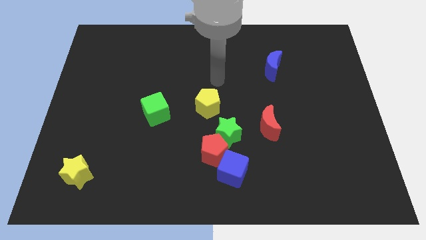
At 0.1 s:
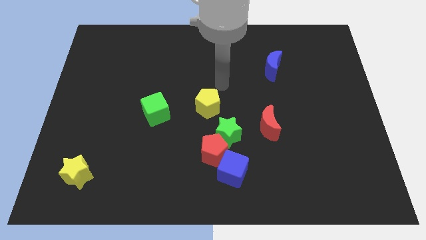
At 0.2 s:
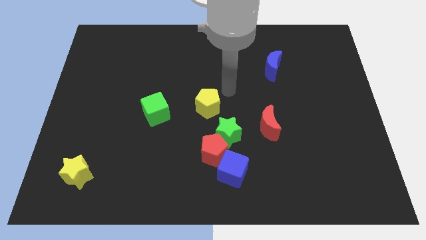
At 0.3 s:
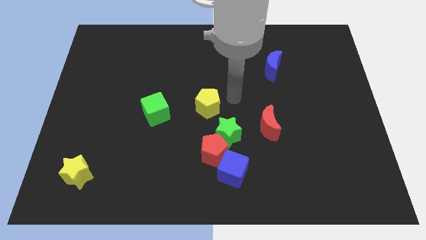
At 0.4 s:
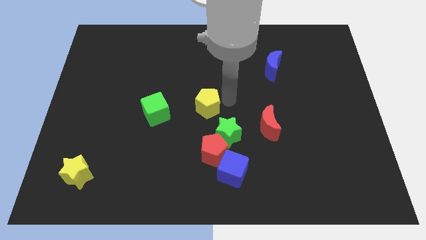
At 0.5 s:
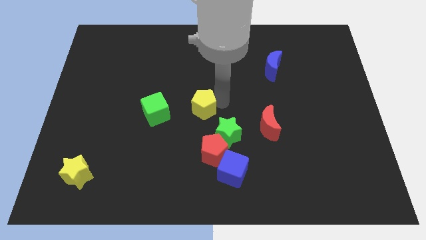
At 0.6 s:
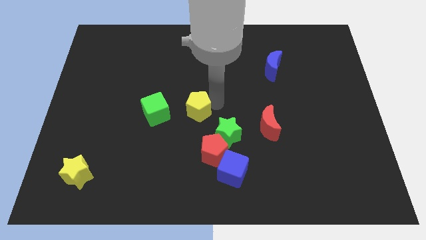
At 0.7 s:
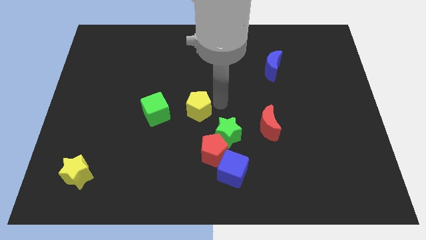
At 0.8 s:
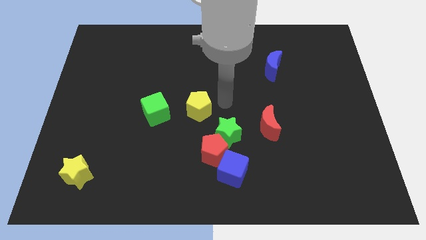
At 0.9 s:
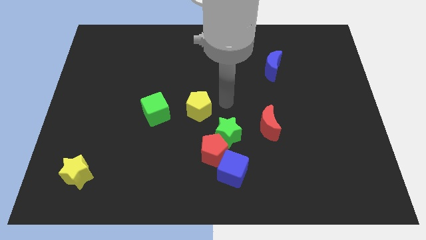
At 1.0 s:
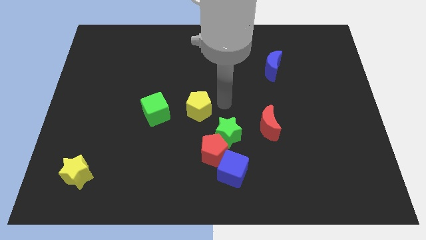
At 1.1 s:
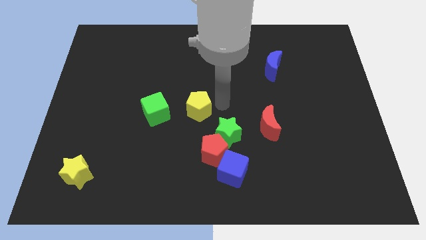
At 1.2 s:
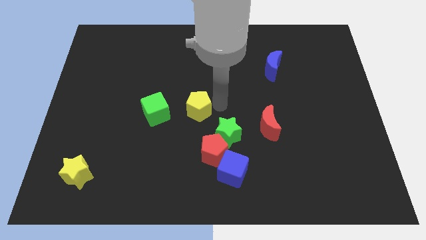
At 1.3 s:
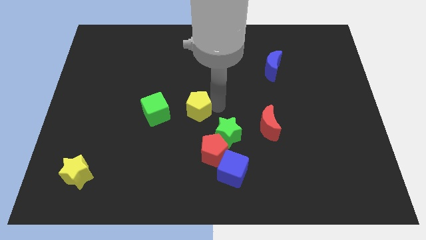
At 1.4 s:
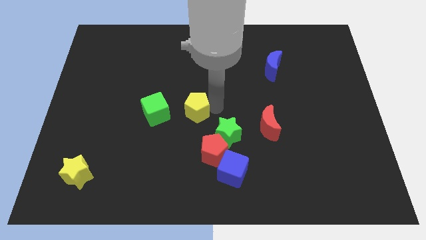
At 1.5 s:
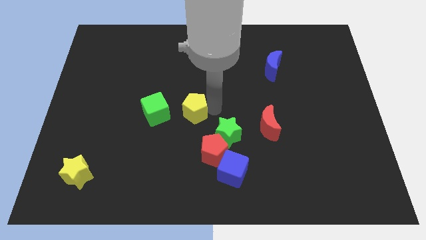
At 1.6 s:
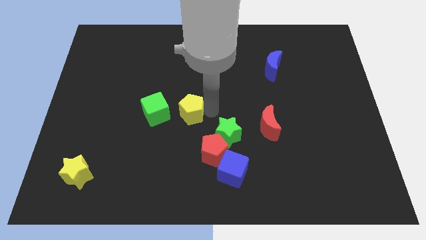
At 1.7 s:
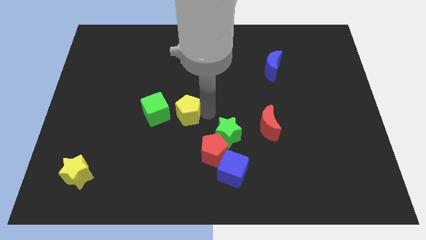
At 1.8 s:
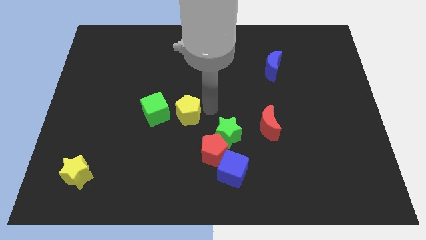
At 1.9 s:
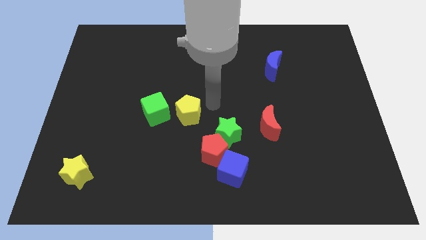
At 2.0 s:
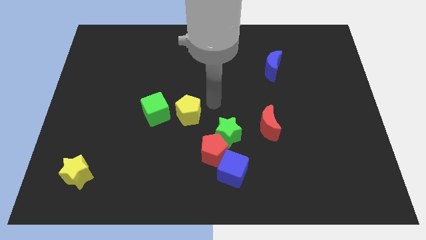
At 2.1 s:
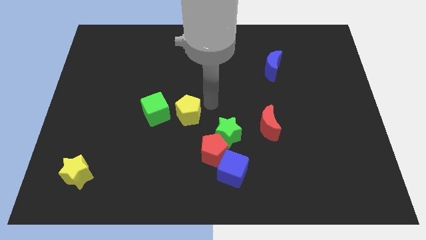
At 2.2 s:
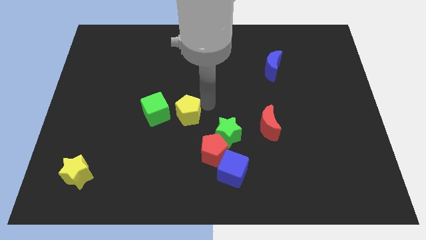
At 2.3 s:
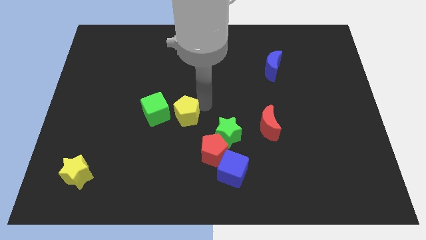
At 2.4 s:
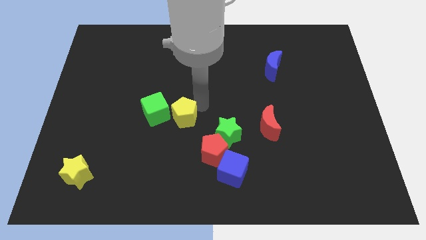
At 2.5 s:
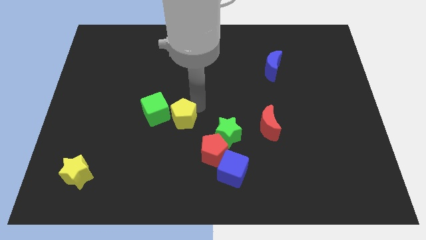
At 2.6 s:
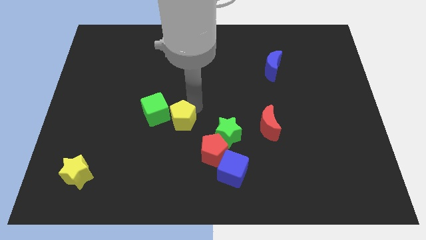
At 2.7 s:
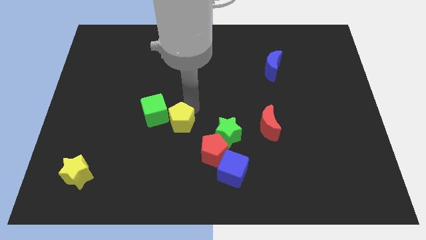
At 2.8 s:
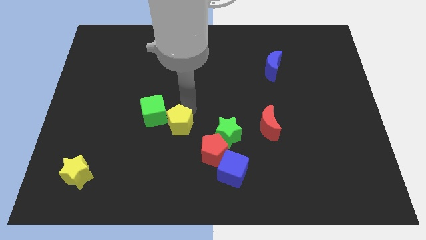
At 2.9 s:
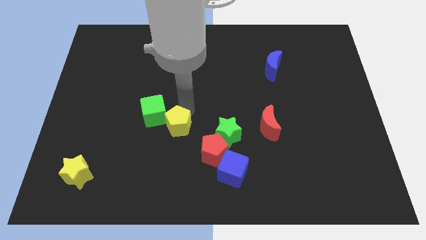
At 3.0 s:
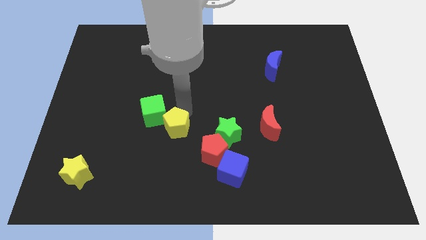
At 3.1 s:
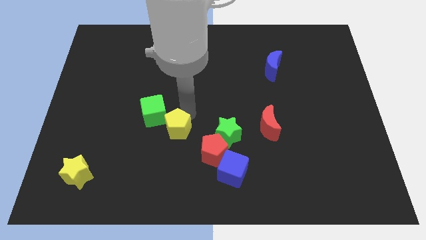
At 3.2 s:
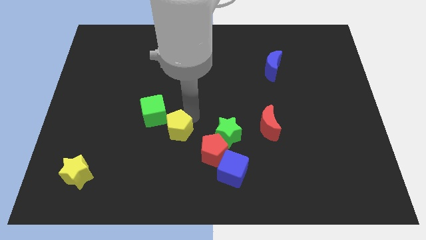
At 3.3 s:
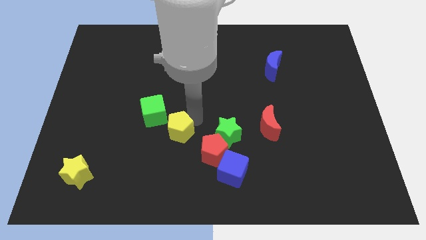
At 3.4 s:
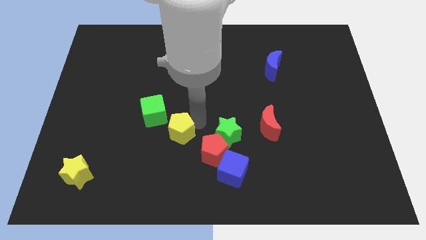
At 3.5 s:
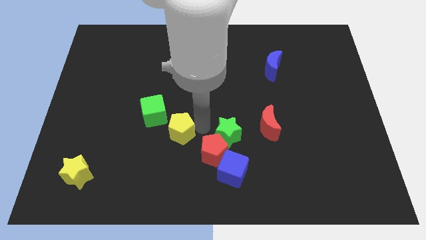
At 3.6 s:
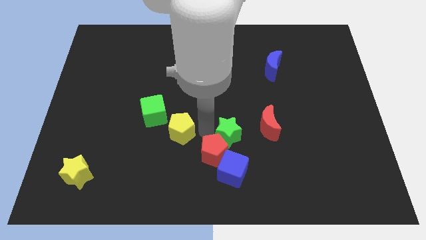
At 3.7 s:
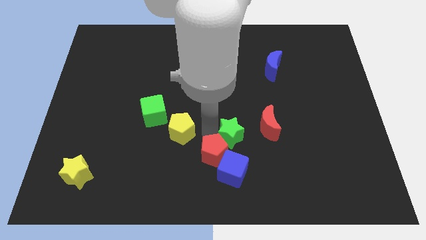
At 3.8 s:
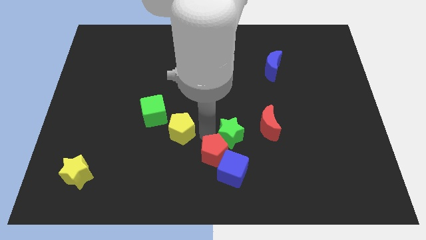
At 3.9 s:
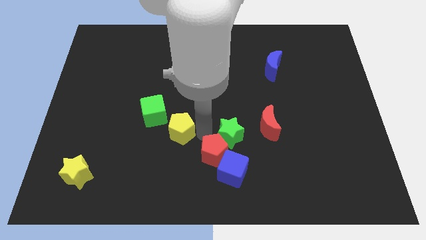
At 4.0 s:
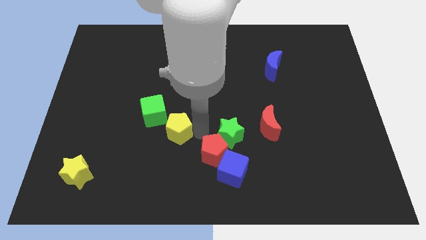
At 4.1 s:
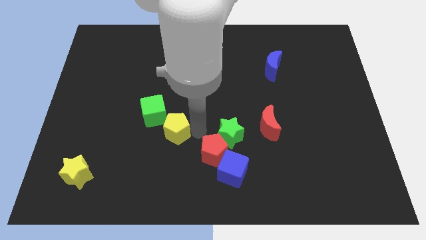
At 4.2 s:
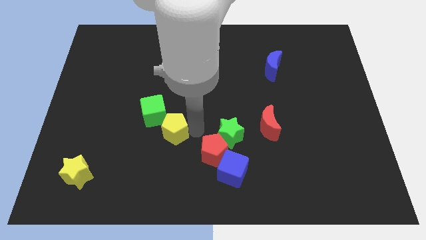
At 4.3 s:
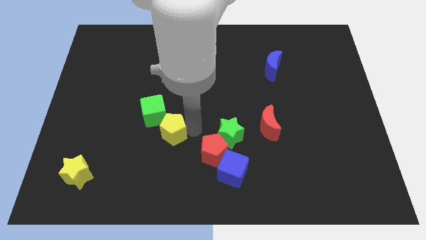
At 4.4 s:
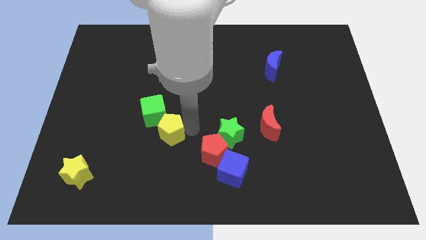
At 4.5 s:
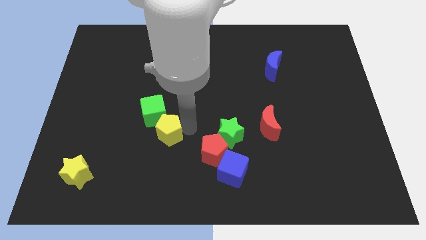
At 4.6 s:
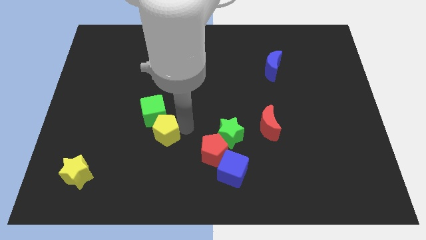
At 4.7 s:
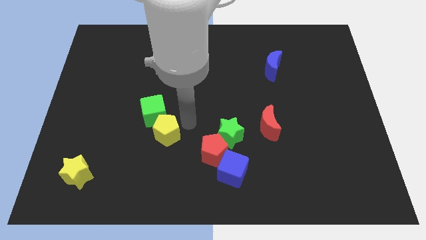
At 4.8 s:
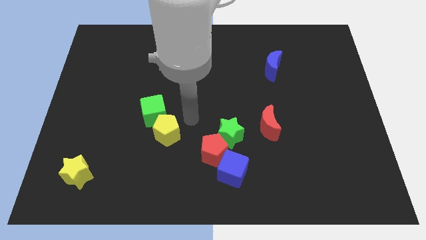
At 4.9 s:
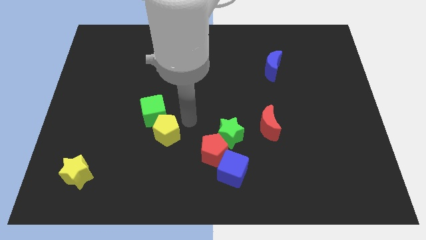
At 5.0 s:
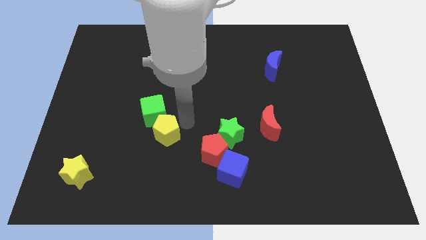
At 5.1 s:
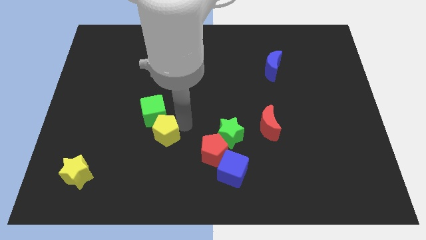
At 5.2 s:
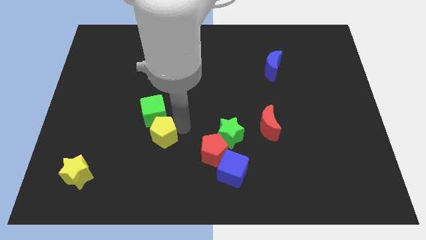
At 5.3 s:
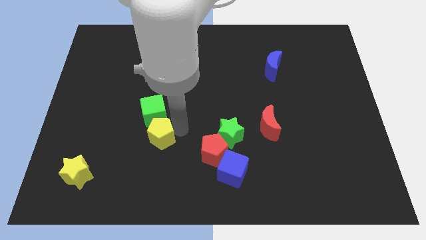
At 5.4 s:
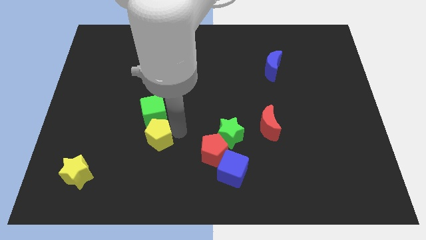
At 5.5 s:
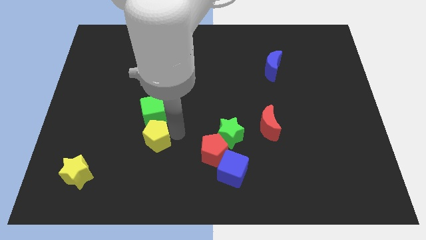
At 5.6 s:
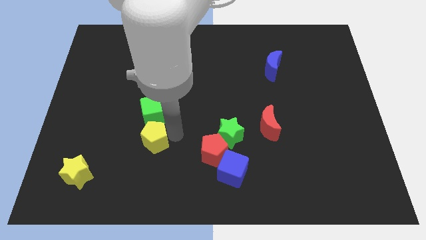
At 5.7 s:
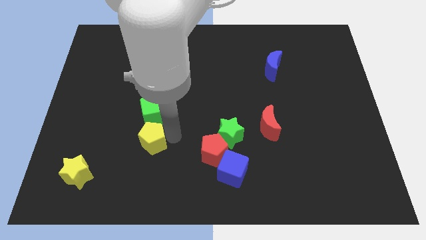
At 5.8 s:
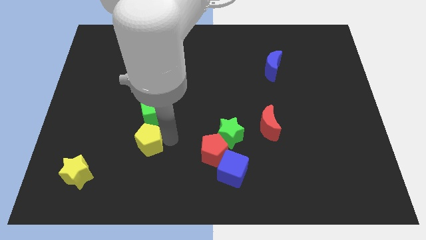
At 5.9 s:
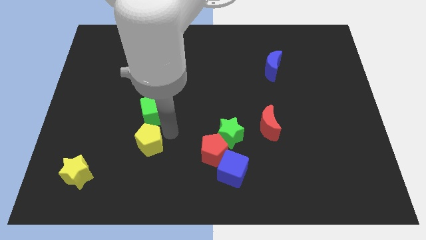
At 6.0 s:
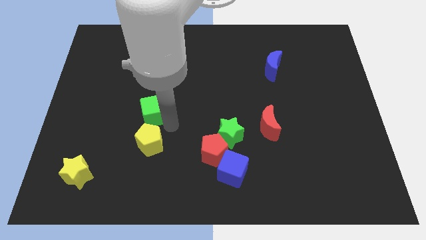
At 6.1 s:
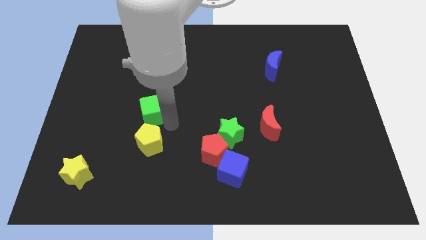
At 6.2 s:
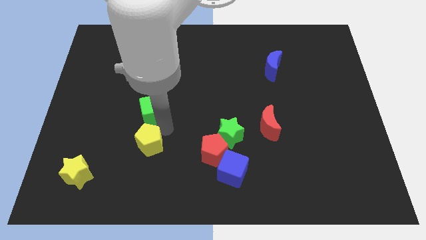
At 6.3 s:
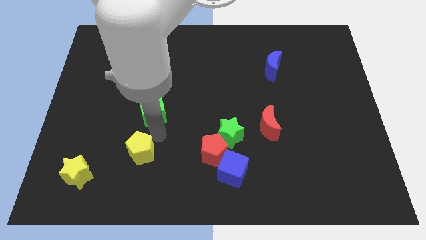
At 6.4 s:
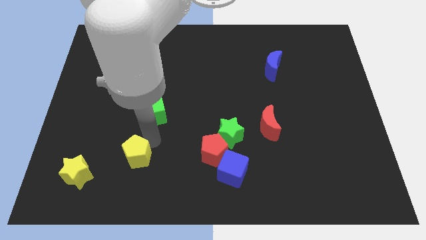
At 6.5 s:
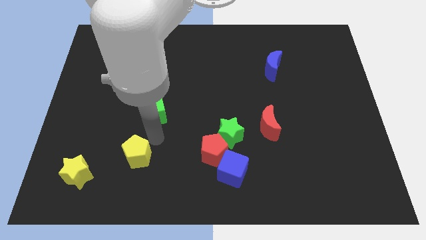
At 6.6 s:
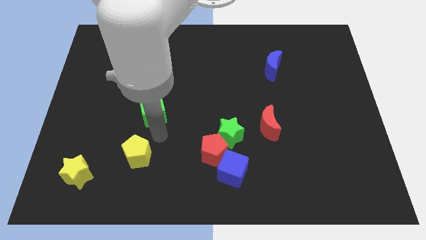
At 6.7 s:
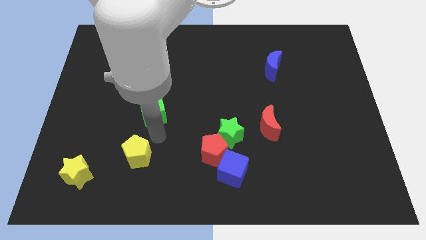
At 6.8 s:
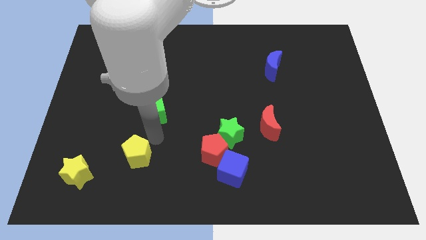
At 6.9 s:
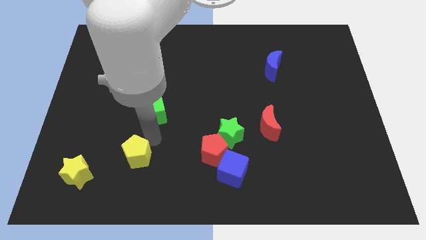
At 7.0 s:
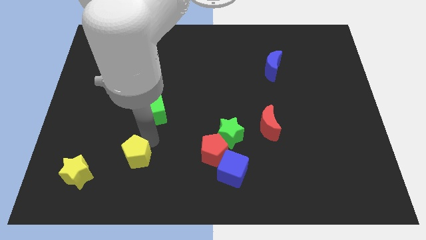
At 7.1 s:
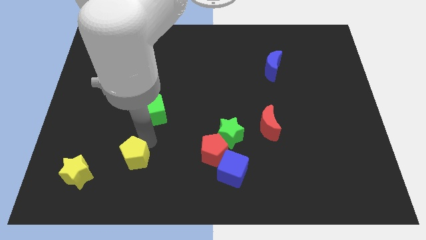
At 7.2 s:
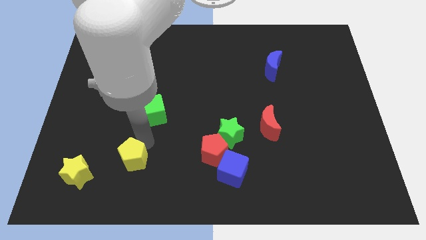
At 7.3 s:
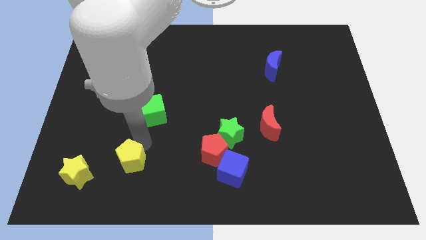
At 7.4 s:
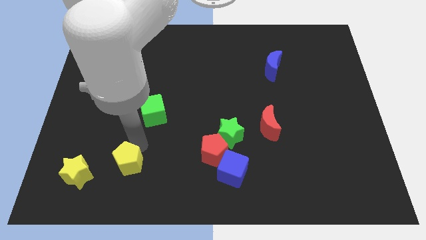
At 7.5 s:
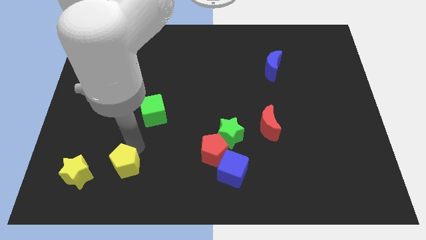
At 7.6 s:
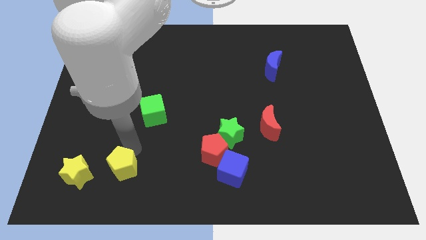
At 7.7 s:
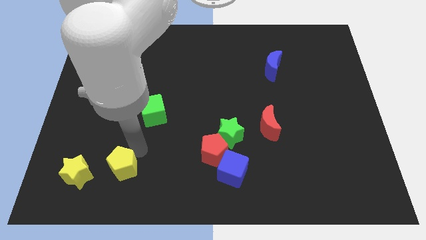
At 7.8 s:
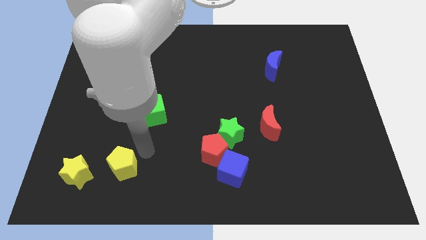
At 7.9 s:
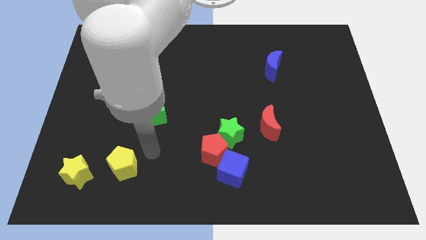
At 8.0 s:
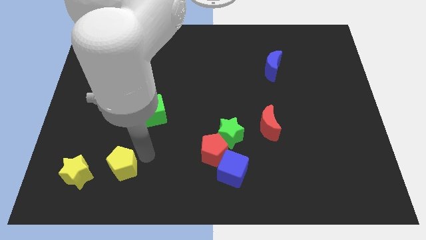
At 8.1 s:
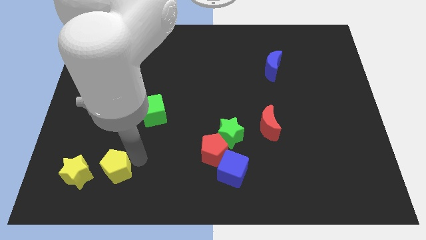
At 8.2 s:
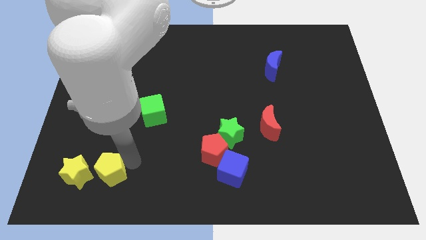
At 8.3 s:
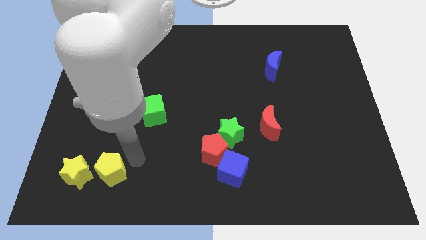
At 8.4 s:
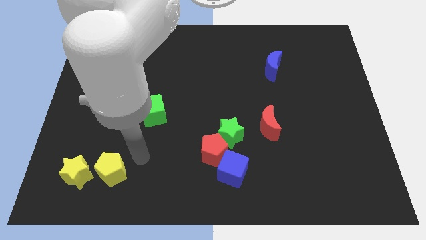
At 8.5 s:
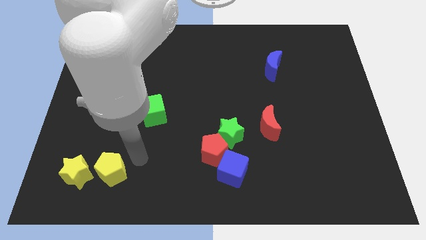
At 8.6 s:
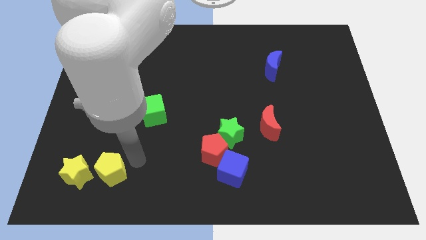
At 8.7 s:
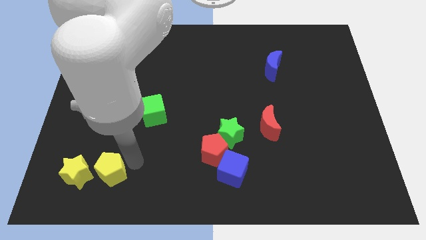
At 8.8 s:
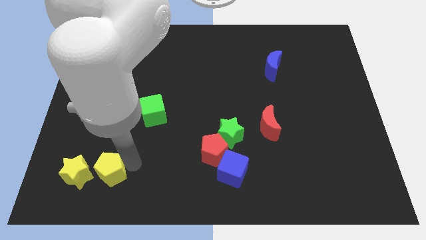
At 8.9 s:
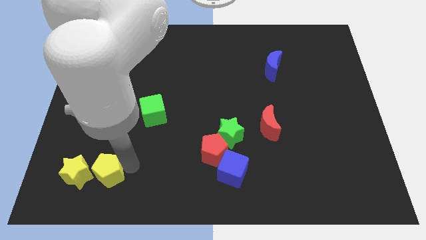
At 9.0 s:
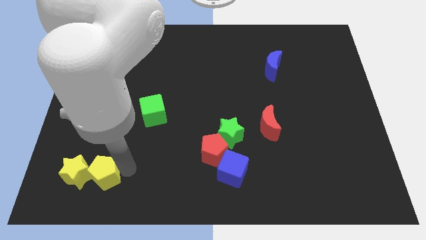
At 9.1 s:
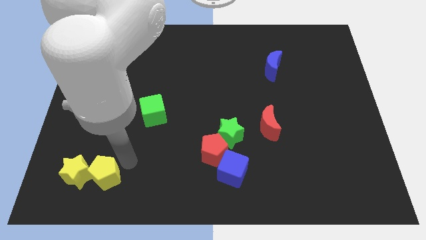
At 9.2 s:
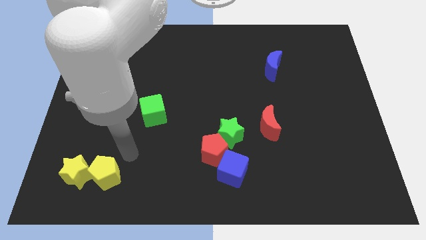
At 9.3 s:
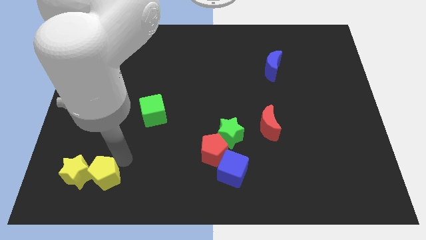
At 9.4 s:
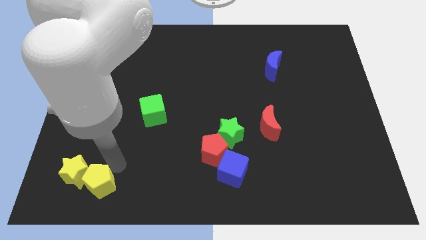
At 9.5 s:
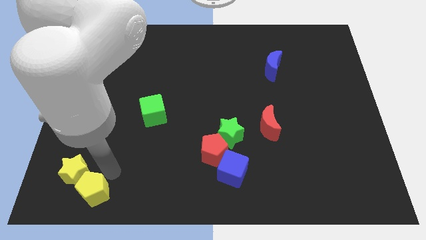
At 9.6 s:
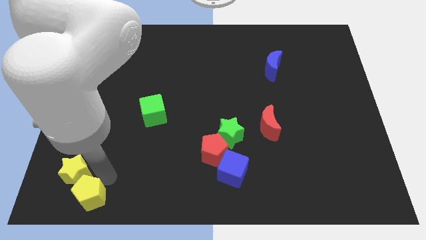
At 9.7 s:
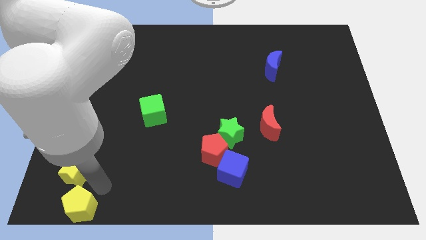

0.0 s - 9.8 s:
slide the yellow pentagon to the bottom left of the board
